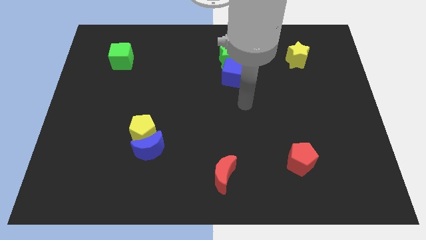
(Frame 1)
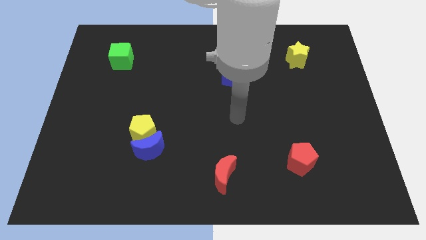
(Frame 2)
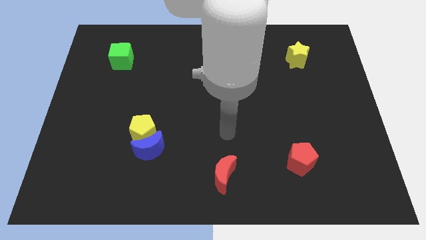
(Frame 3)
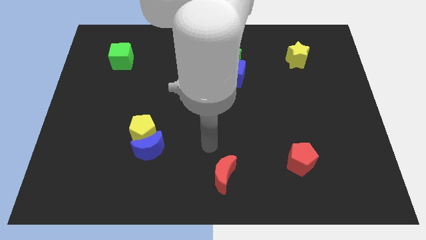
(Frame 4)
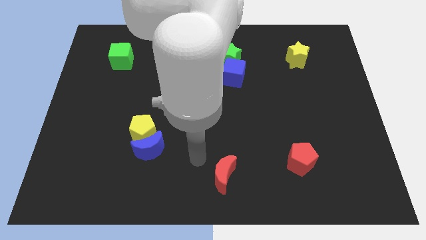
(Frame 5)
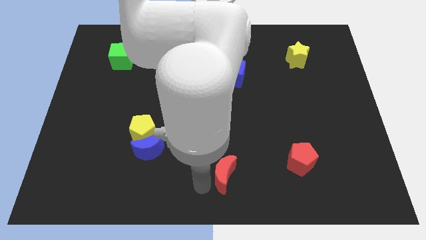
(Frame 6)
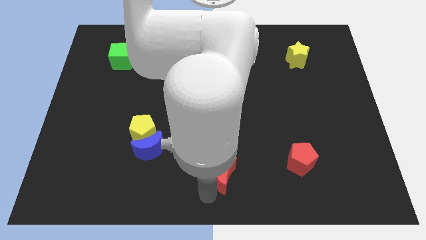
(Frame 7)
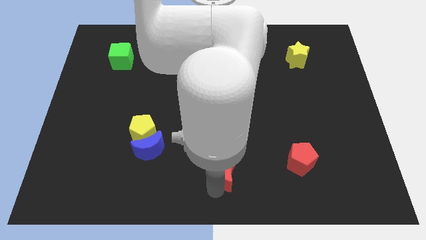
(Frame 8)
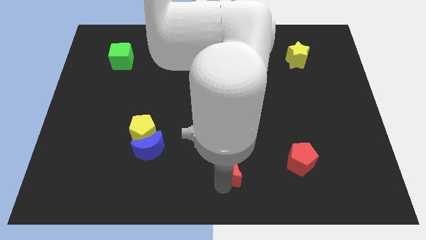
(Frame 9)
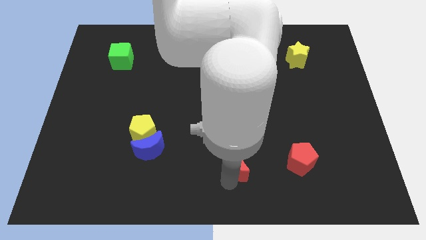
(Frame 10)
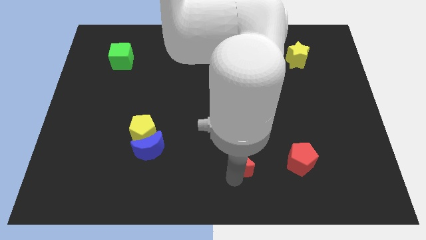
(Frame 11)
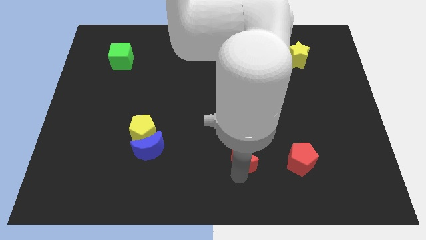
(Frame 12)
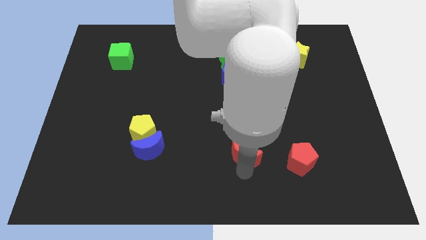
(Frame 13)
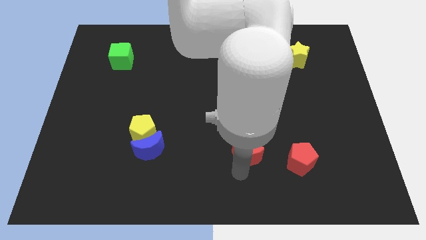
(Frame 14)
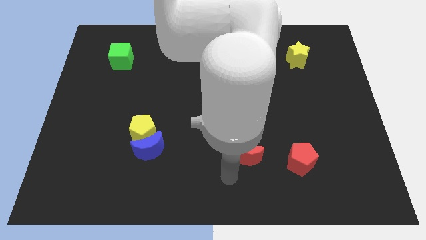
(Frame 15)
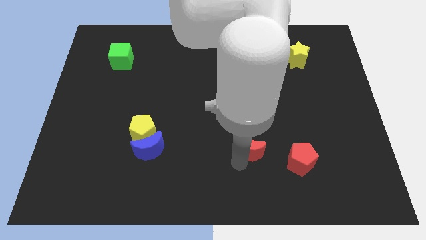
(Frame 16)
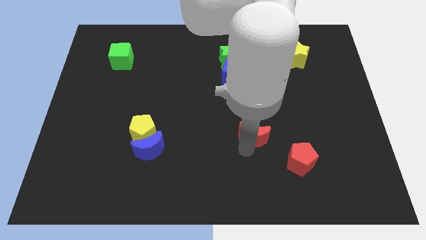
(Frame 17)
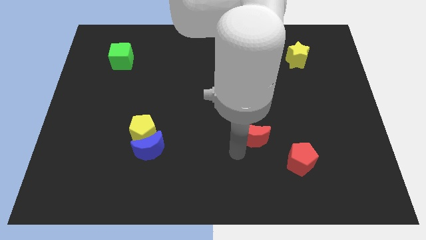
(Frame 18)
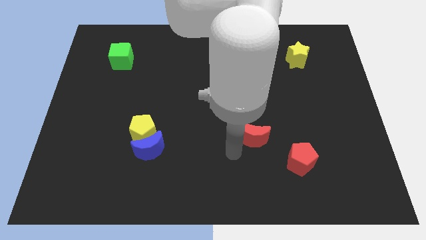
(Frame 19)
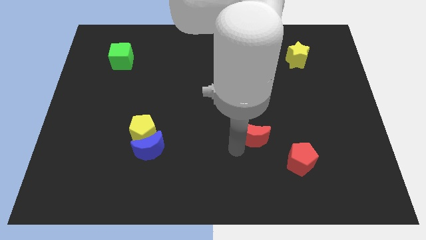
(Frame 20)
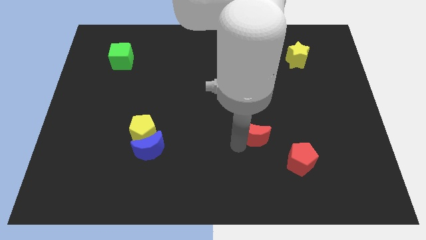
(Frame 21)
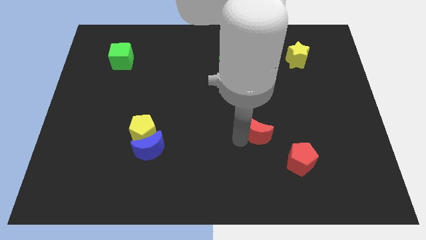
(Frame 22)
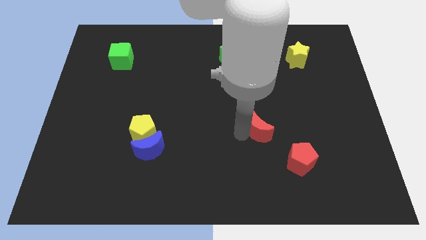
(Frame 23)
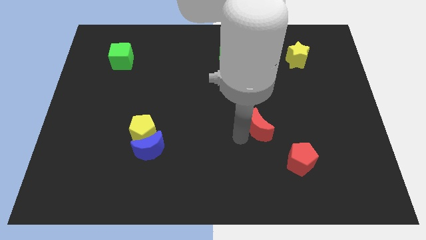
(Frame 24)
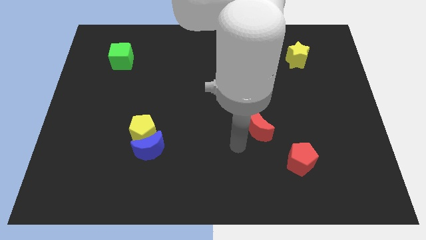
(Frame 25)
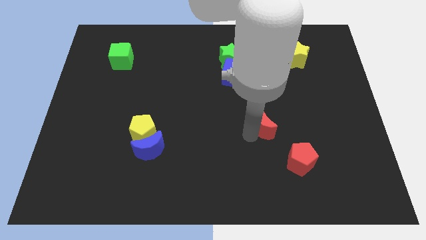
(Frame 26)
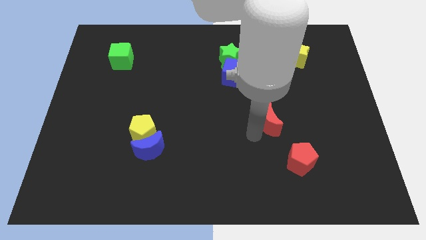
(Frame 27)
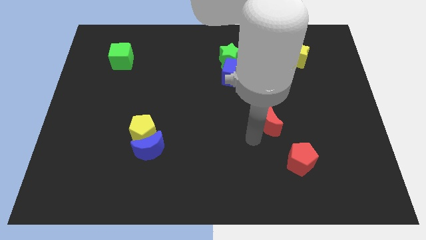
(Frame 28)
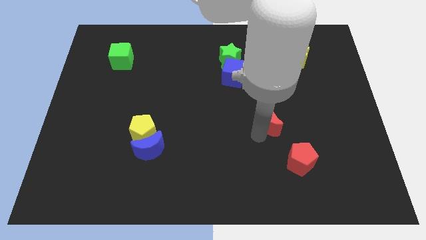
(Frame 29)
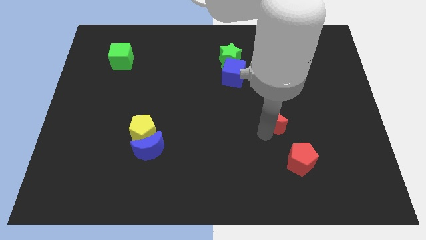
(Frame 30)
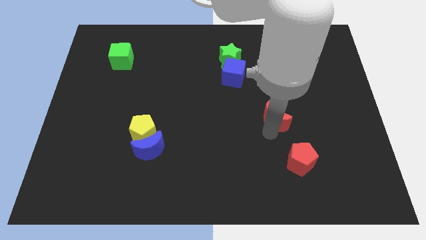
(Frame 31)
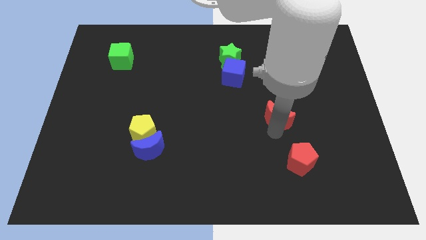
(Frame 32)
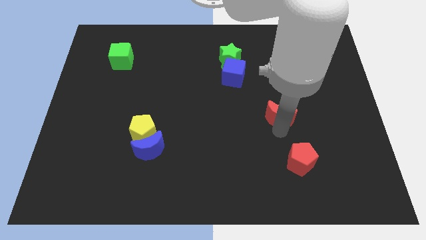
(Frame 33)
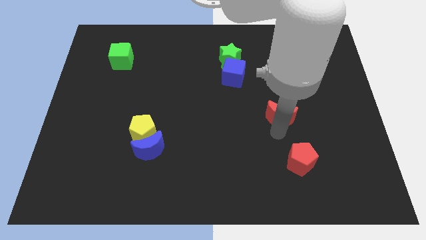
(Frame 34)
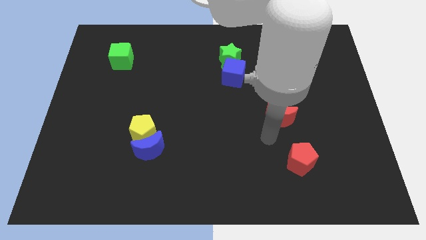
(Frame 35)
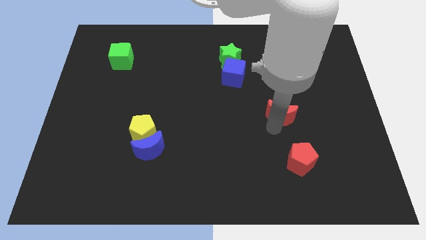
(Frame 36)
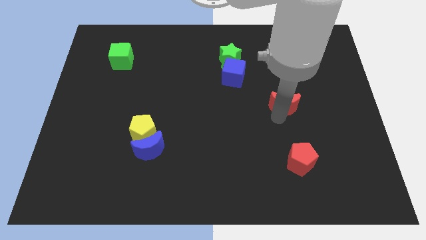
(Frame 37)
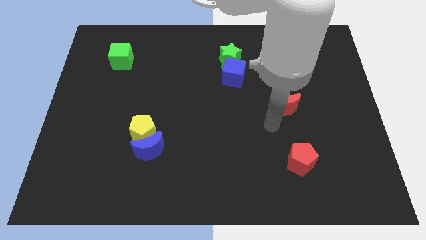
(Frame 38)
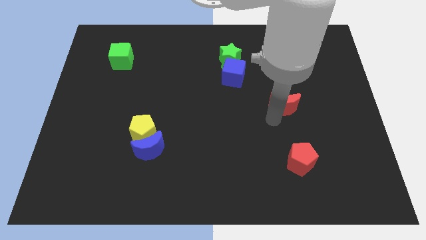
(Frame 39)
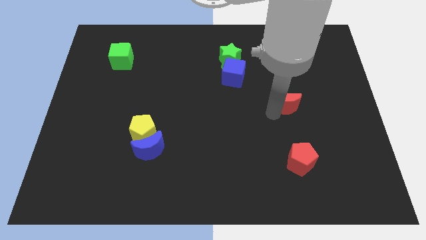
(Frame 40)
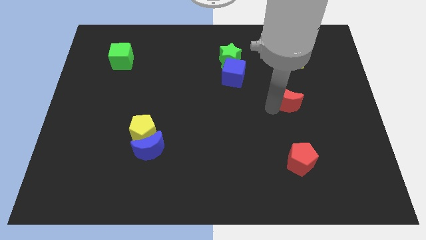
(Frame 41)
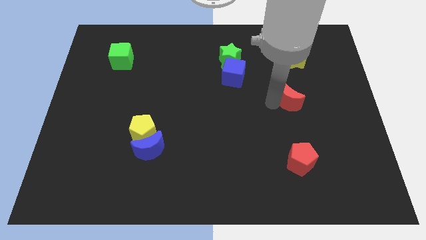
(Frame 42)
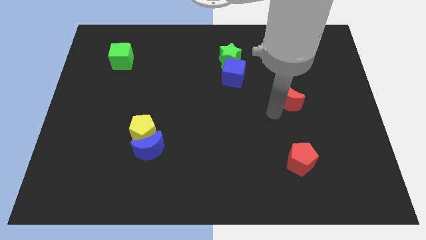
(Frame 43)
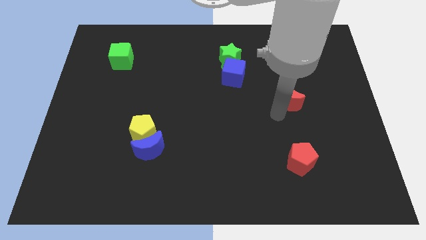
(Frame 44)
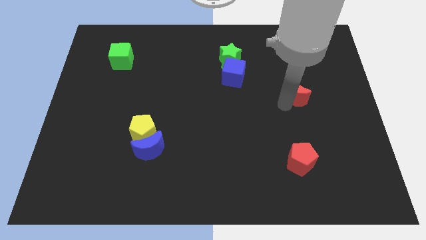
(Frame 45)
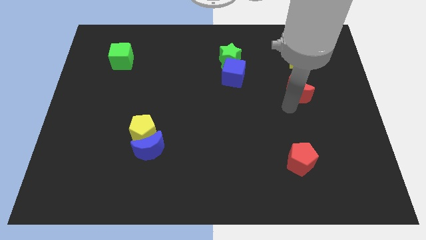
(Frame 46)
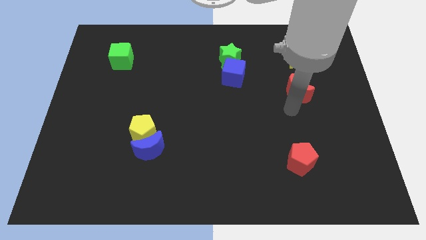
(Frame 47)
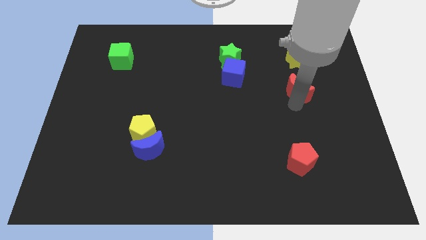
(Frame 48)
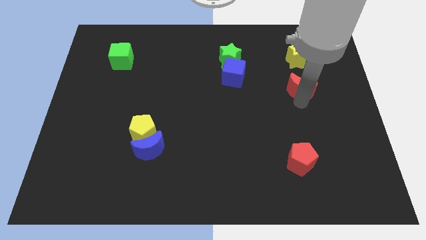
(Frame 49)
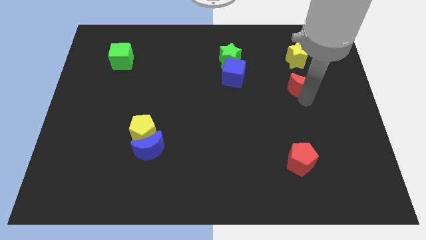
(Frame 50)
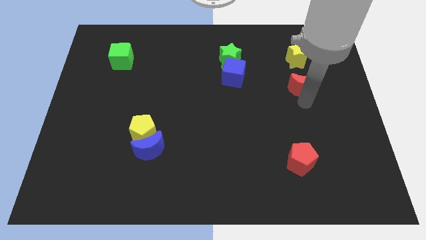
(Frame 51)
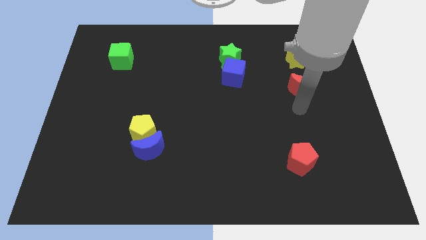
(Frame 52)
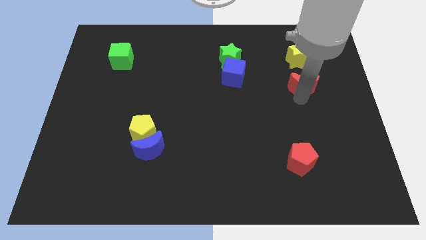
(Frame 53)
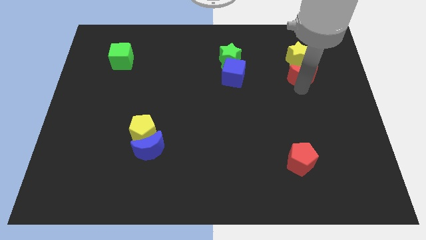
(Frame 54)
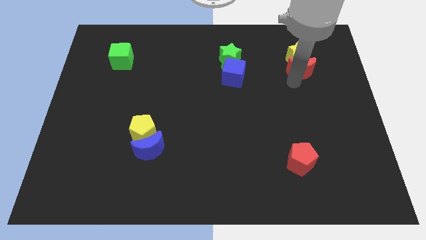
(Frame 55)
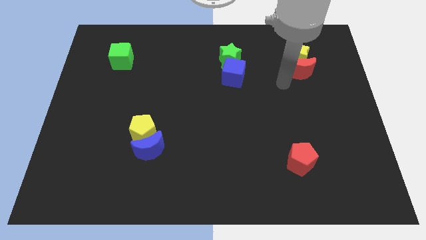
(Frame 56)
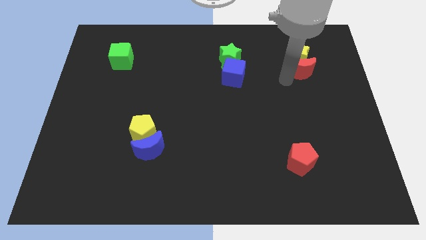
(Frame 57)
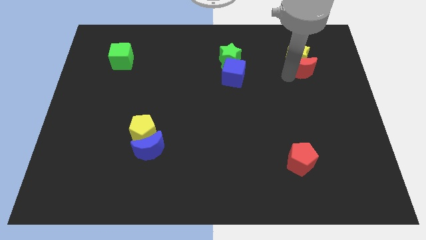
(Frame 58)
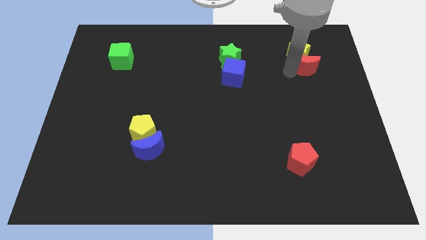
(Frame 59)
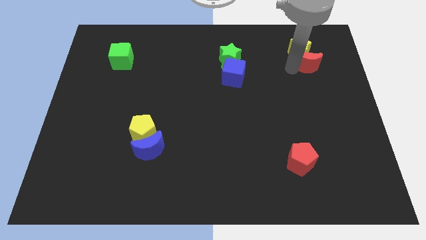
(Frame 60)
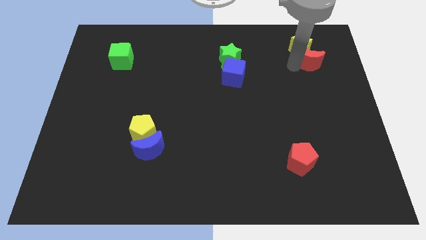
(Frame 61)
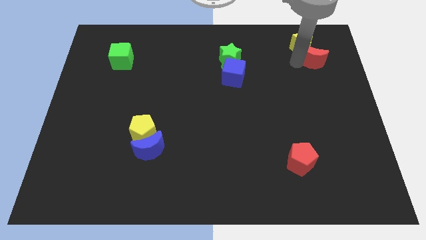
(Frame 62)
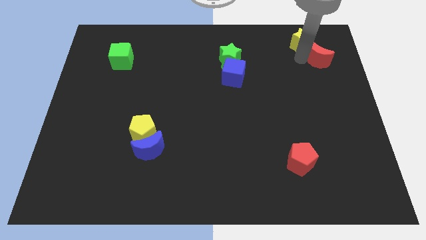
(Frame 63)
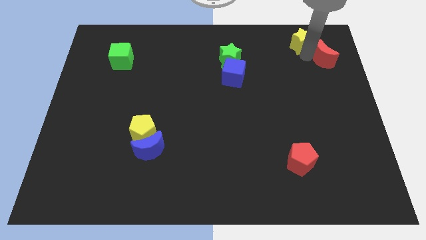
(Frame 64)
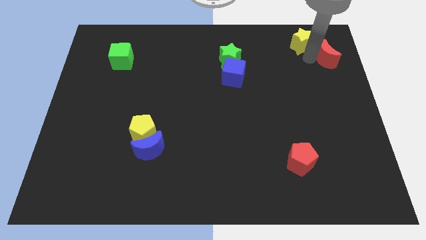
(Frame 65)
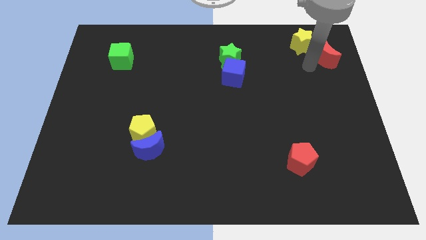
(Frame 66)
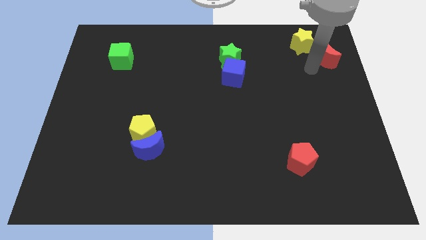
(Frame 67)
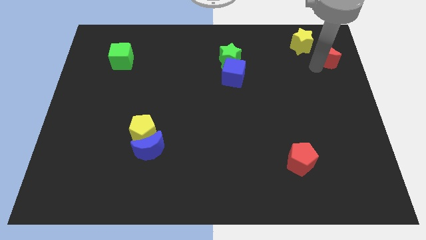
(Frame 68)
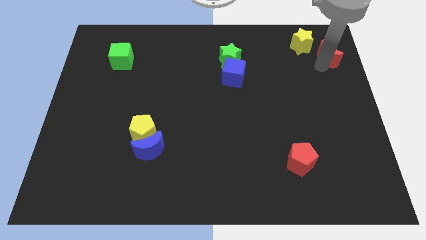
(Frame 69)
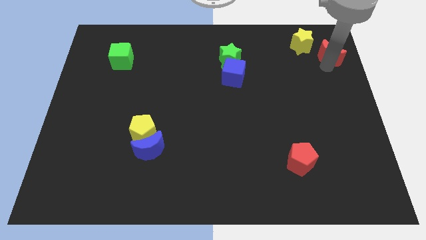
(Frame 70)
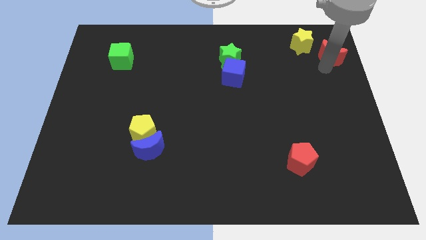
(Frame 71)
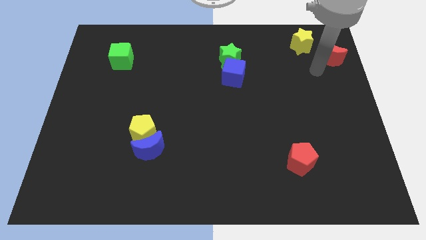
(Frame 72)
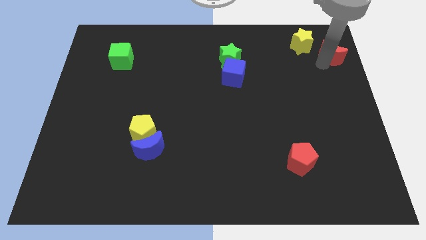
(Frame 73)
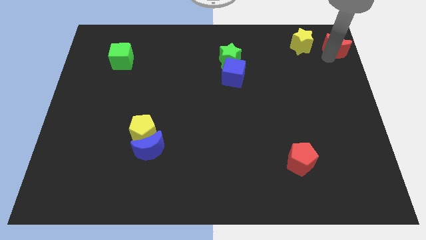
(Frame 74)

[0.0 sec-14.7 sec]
push the red moon to the upper right corner
